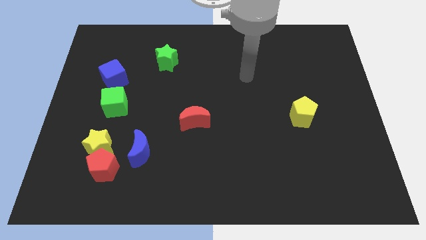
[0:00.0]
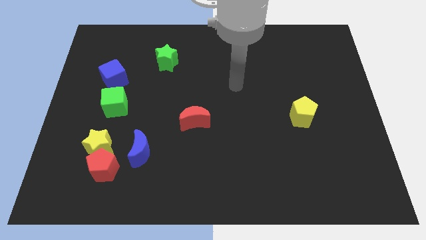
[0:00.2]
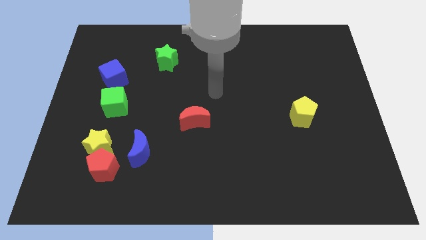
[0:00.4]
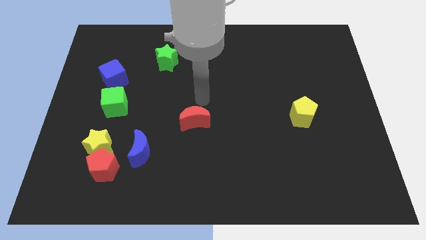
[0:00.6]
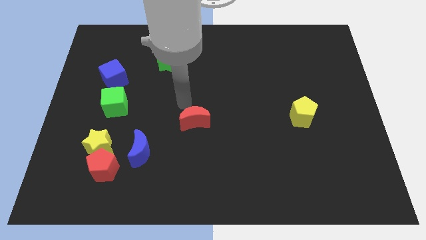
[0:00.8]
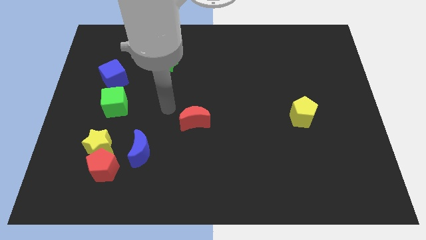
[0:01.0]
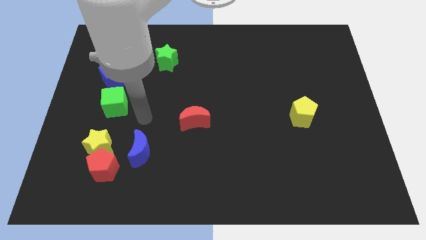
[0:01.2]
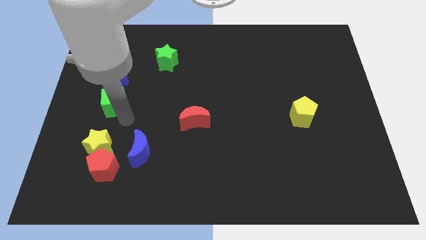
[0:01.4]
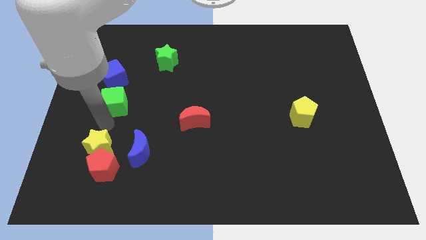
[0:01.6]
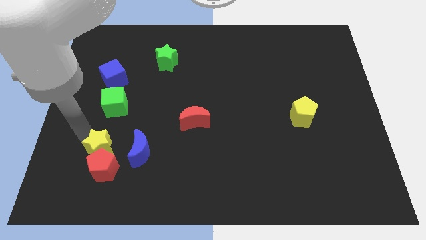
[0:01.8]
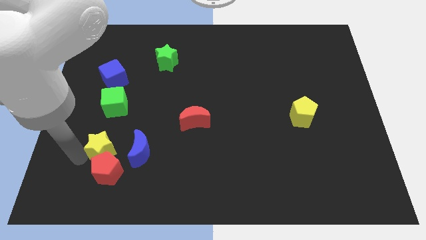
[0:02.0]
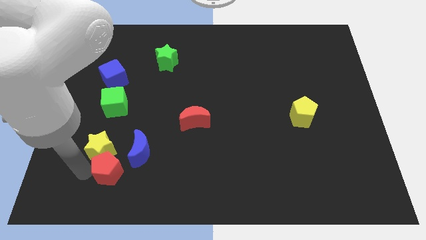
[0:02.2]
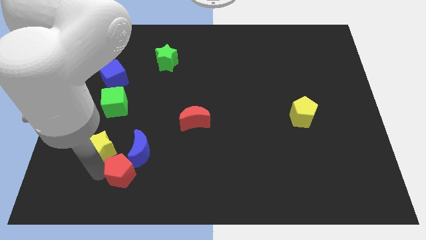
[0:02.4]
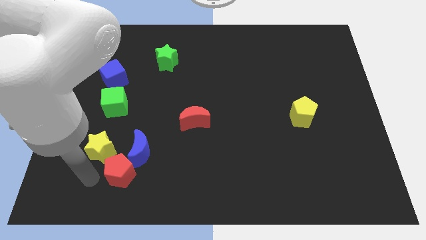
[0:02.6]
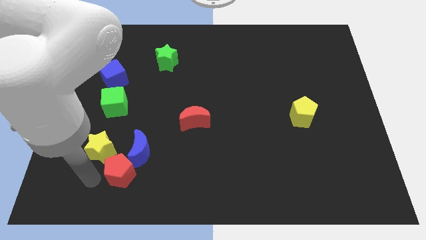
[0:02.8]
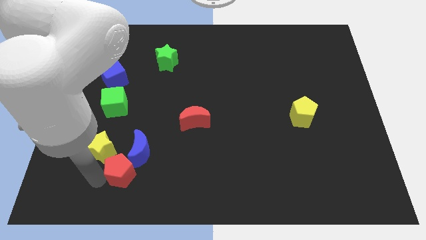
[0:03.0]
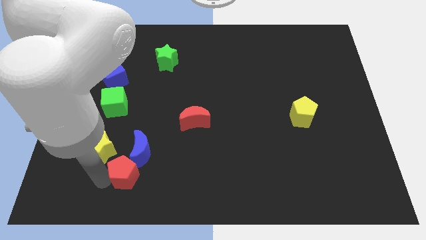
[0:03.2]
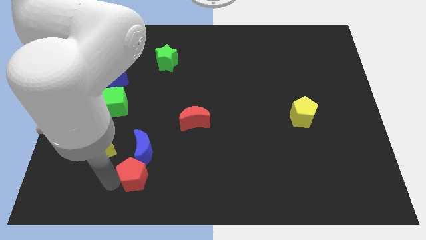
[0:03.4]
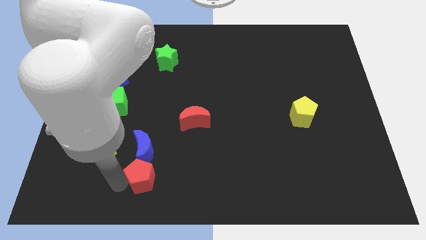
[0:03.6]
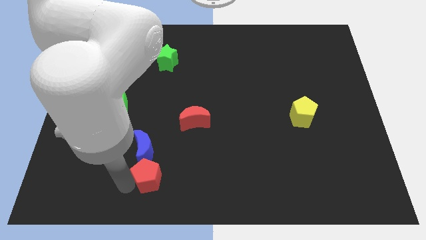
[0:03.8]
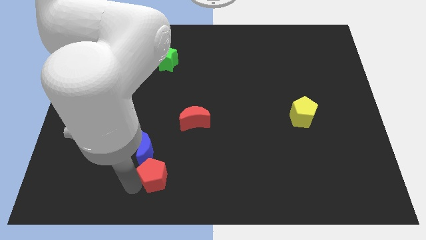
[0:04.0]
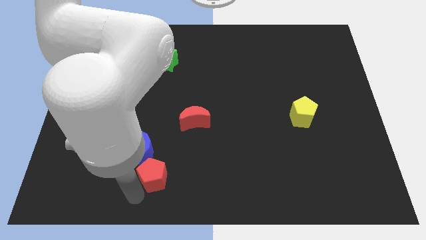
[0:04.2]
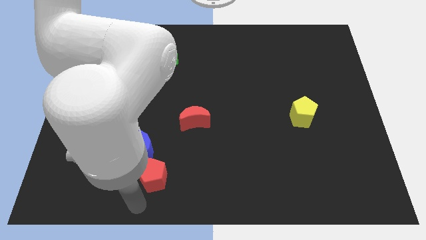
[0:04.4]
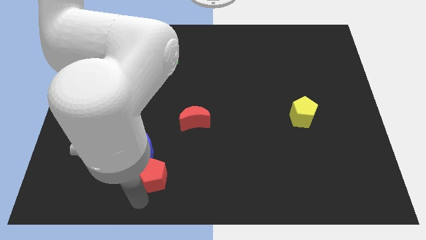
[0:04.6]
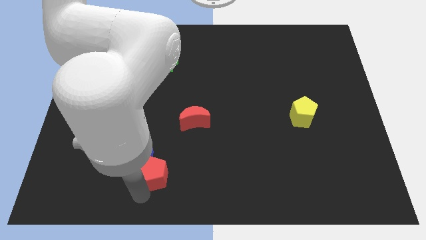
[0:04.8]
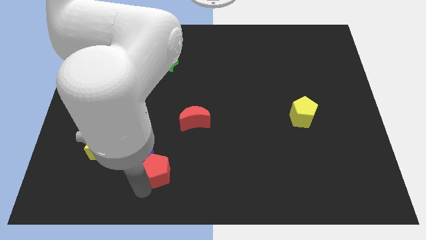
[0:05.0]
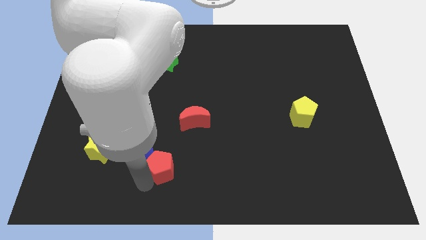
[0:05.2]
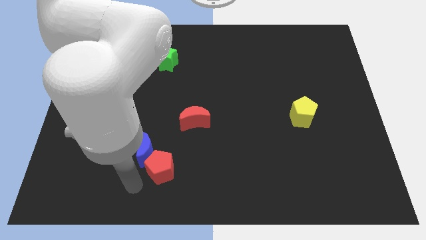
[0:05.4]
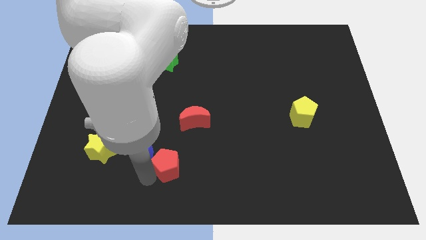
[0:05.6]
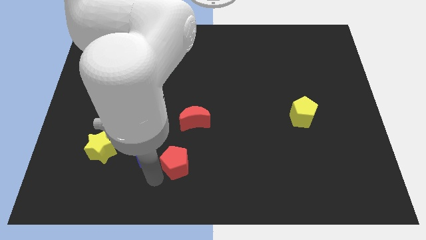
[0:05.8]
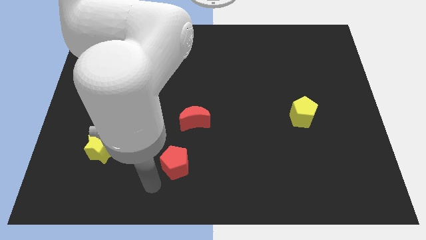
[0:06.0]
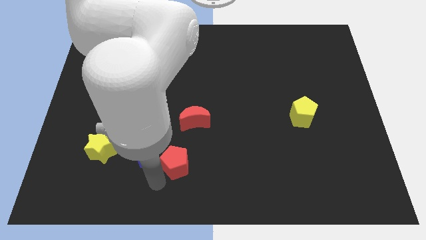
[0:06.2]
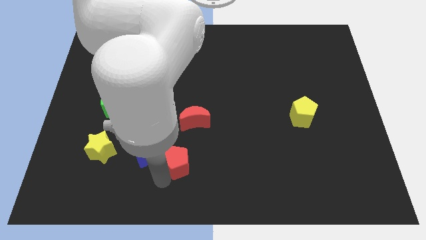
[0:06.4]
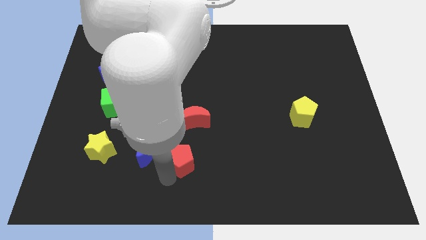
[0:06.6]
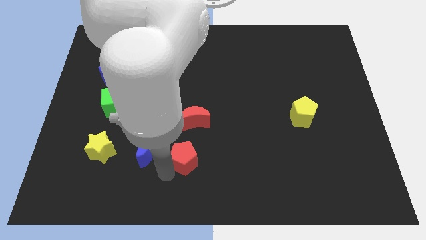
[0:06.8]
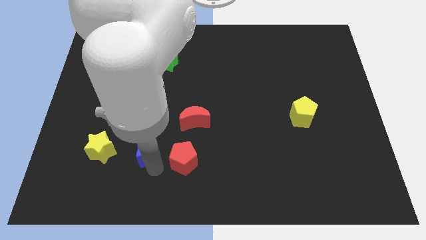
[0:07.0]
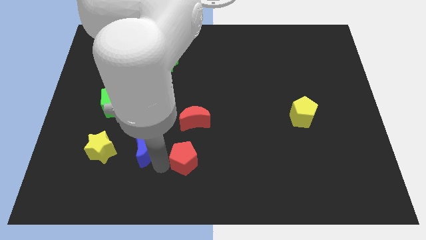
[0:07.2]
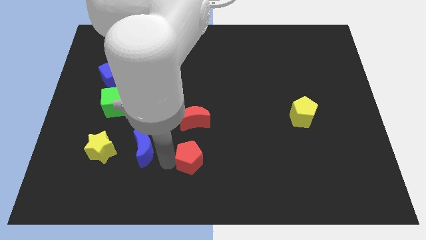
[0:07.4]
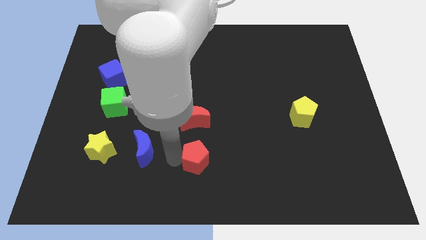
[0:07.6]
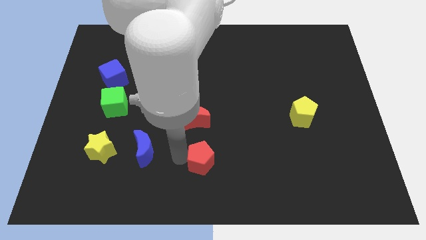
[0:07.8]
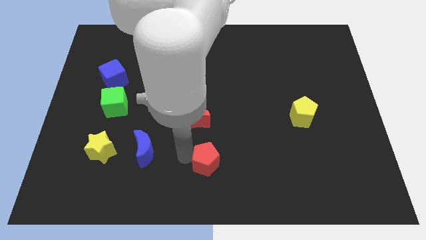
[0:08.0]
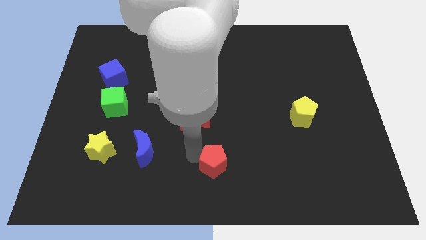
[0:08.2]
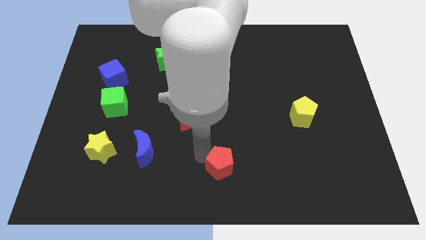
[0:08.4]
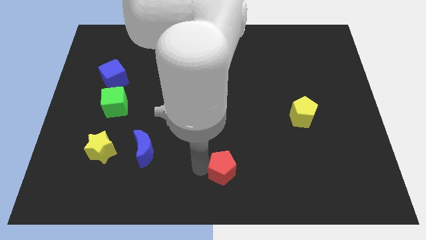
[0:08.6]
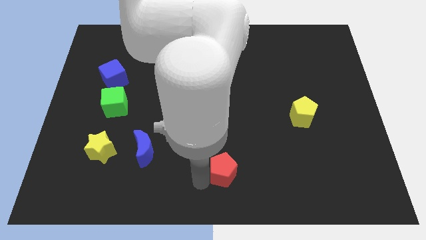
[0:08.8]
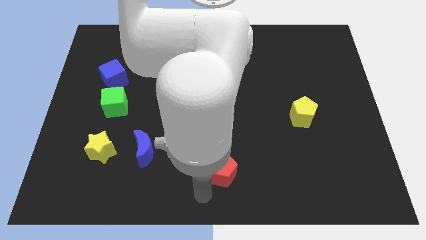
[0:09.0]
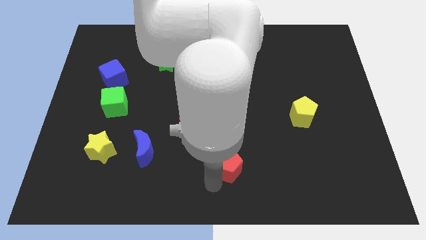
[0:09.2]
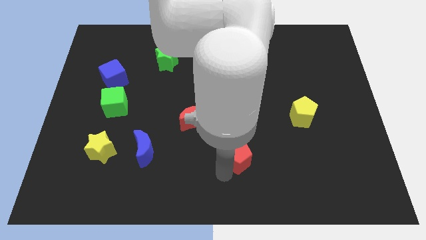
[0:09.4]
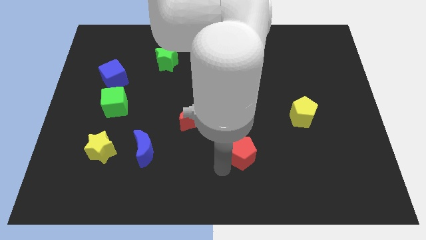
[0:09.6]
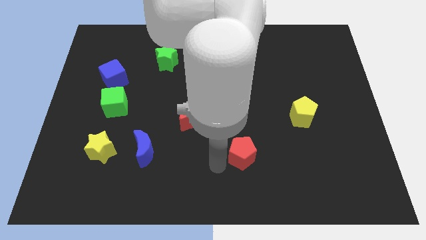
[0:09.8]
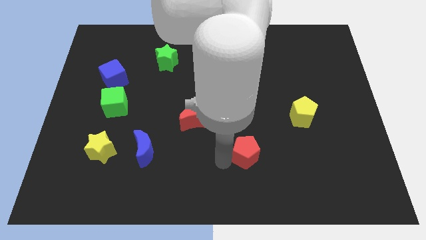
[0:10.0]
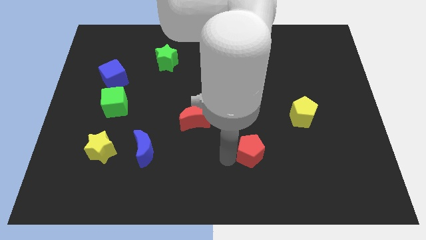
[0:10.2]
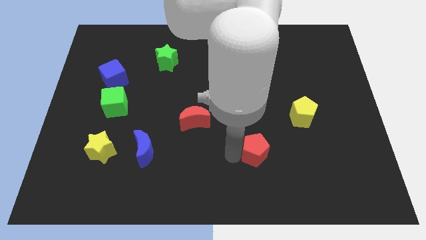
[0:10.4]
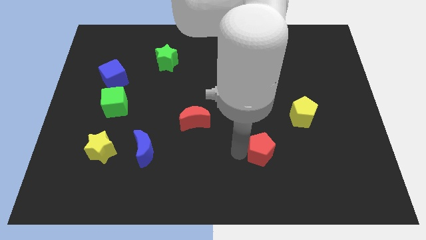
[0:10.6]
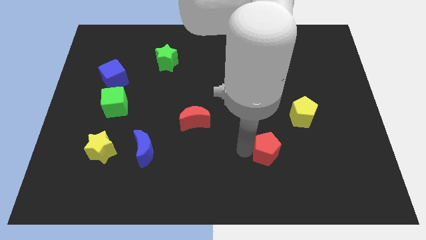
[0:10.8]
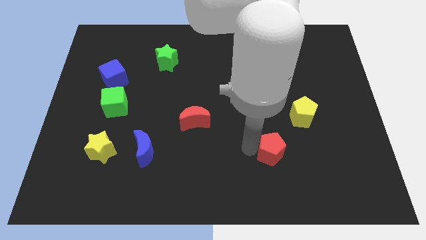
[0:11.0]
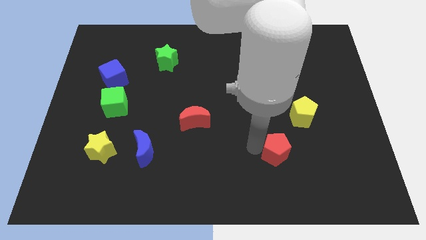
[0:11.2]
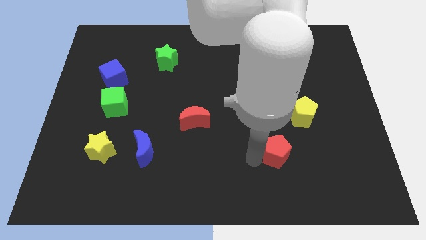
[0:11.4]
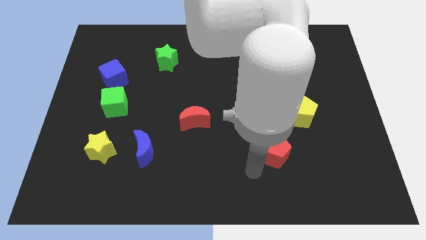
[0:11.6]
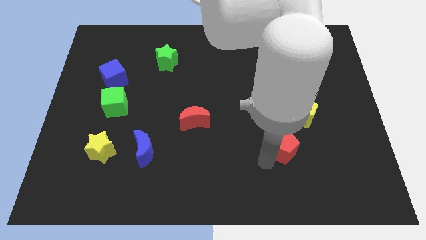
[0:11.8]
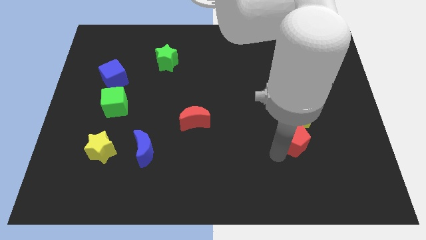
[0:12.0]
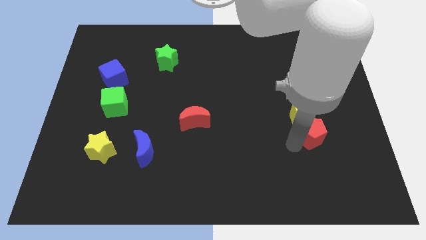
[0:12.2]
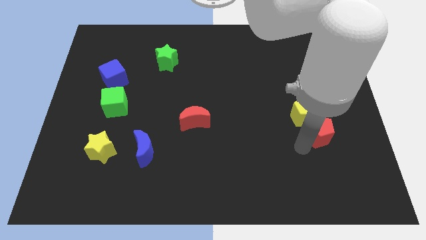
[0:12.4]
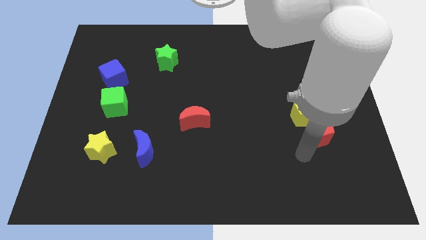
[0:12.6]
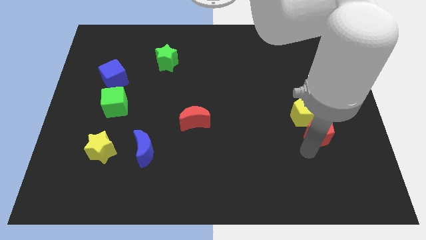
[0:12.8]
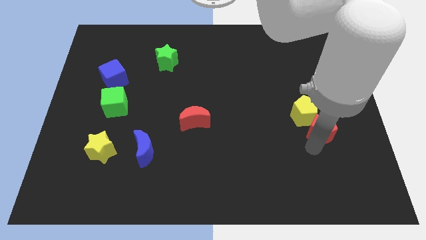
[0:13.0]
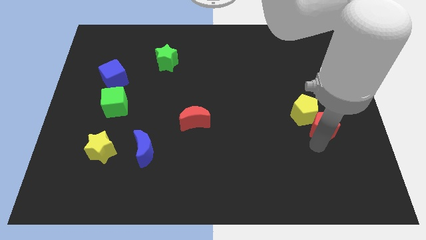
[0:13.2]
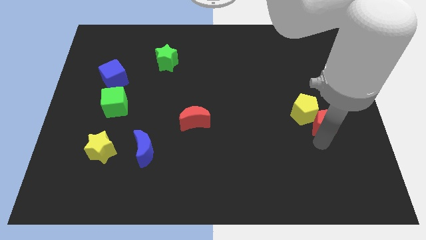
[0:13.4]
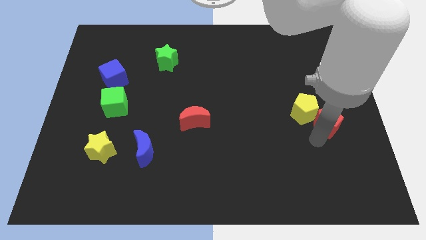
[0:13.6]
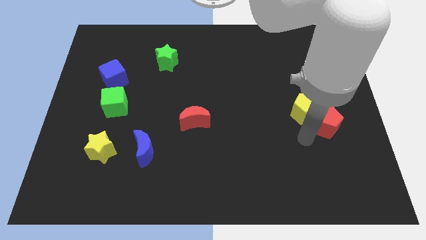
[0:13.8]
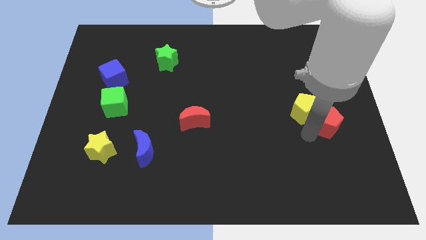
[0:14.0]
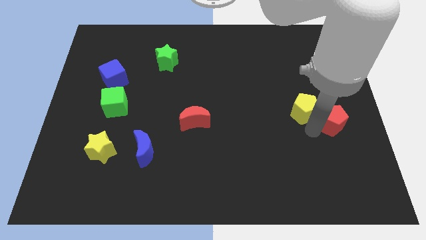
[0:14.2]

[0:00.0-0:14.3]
slide the red pentagon to the right side of the board

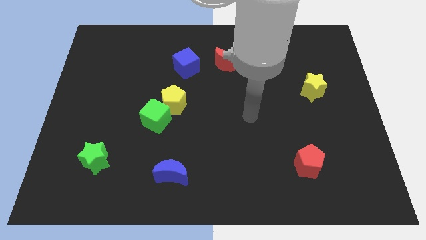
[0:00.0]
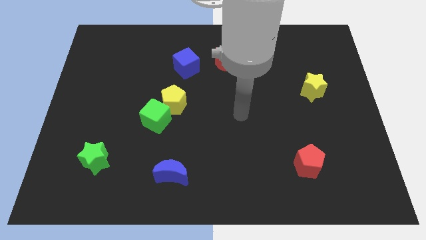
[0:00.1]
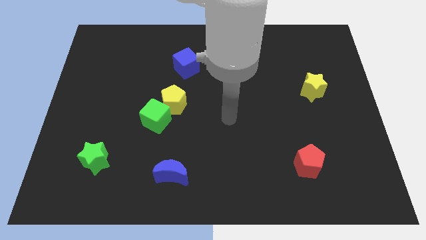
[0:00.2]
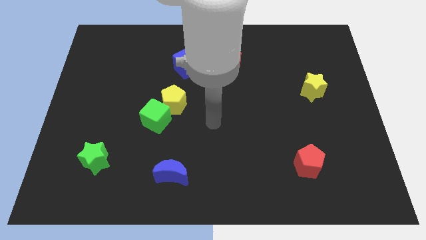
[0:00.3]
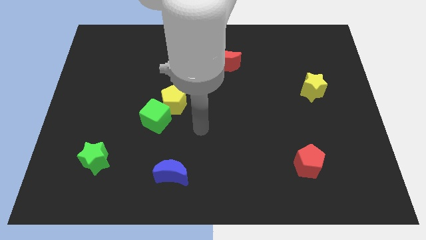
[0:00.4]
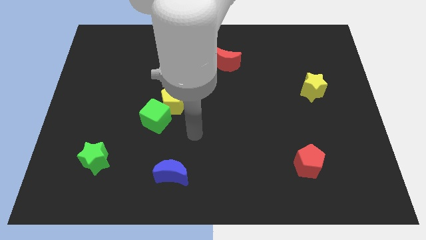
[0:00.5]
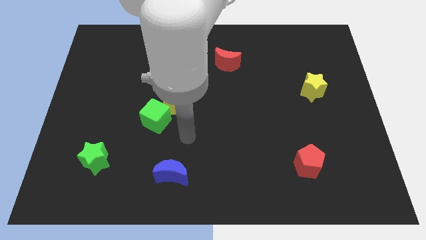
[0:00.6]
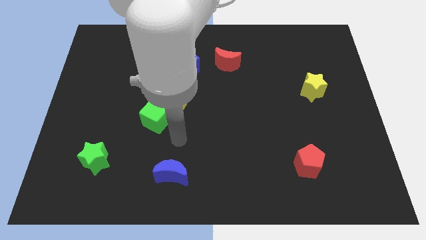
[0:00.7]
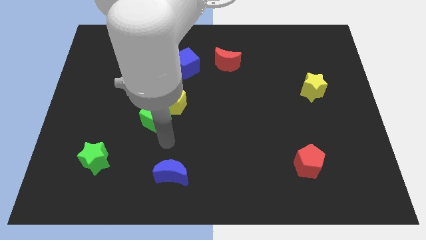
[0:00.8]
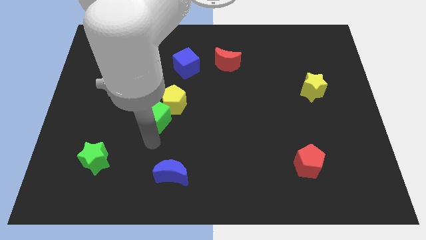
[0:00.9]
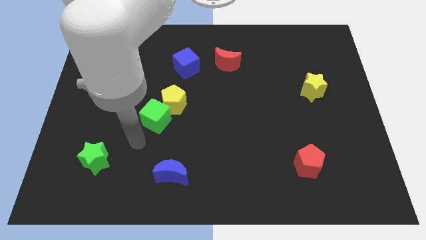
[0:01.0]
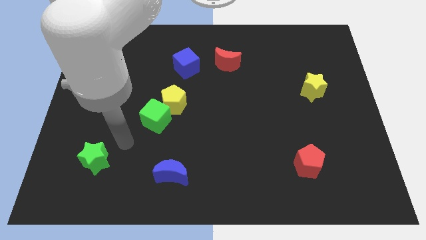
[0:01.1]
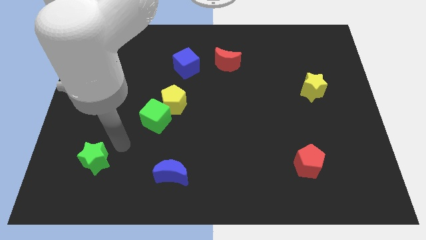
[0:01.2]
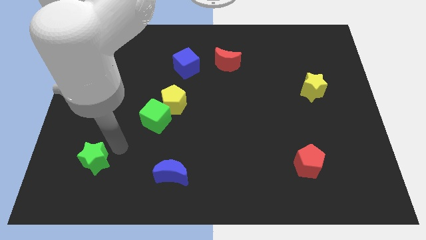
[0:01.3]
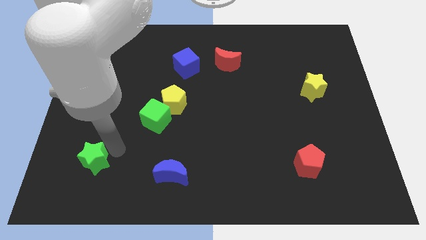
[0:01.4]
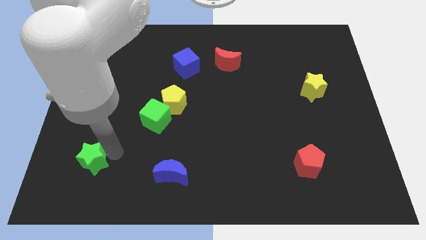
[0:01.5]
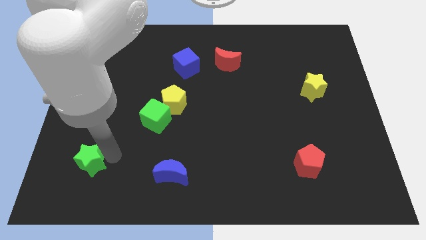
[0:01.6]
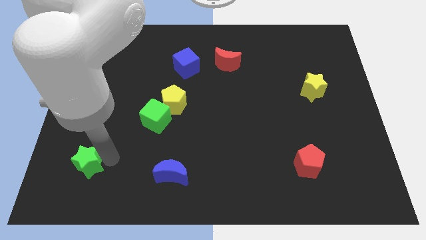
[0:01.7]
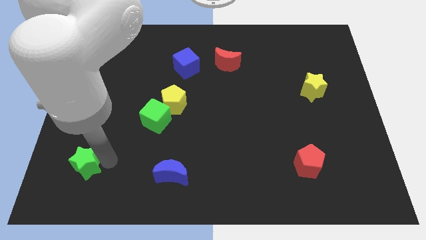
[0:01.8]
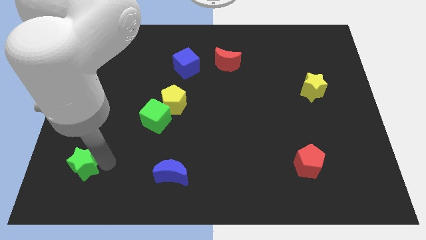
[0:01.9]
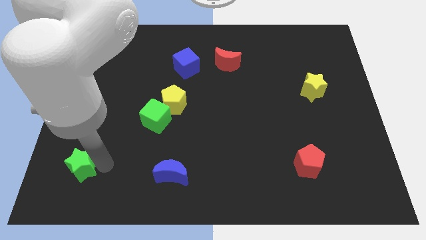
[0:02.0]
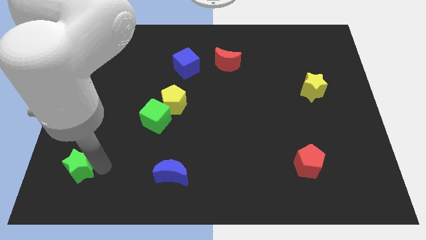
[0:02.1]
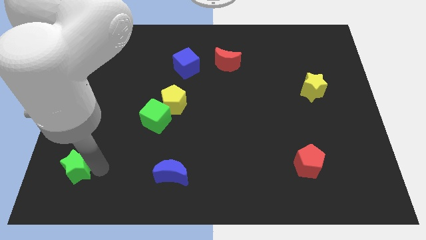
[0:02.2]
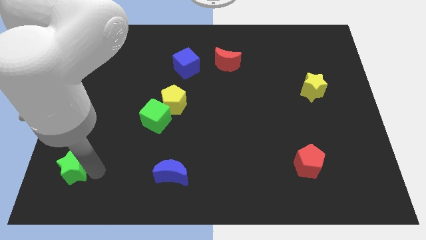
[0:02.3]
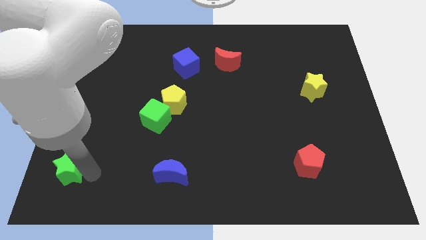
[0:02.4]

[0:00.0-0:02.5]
put the green star to the bottom left
